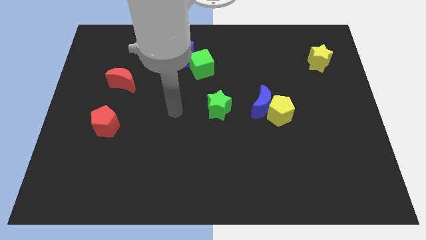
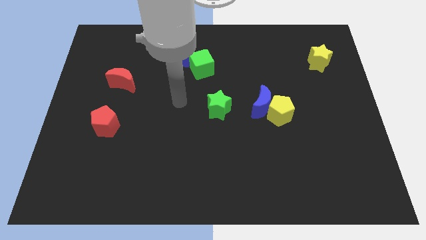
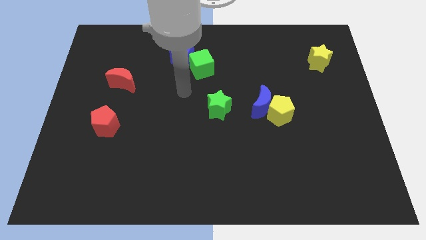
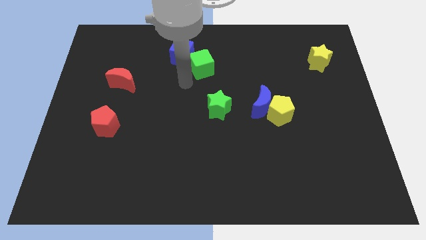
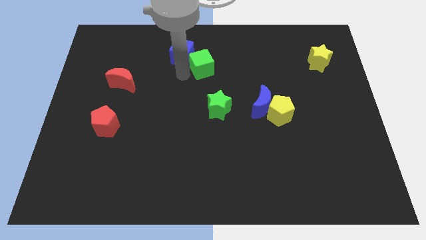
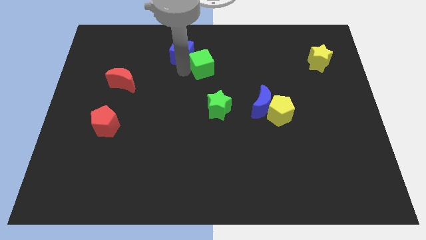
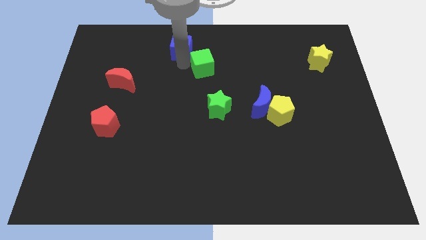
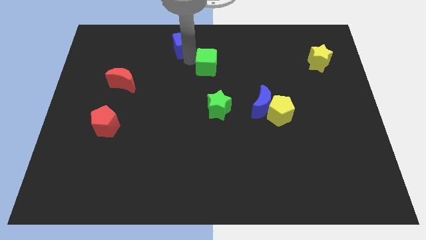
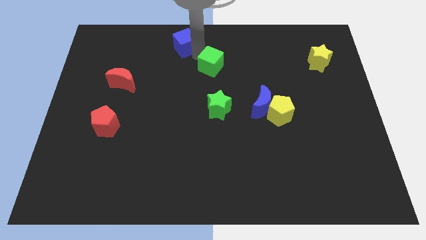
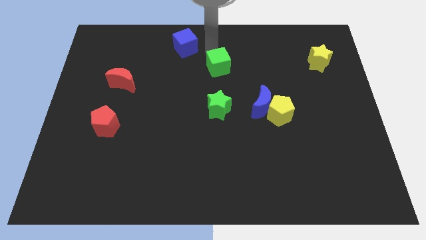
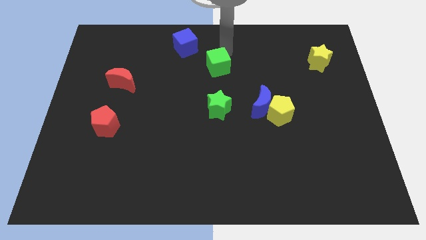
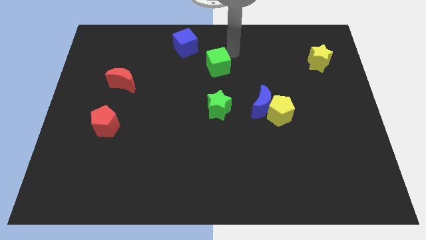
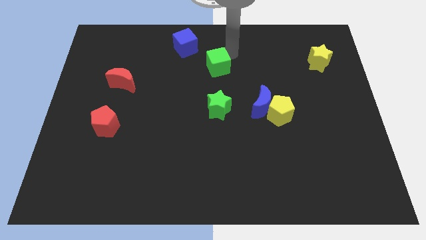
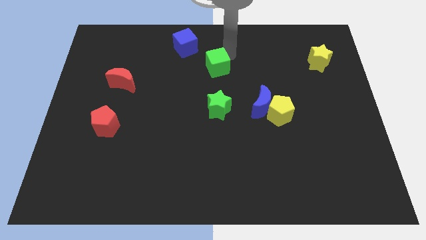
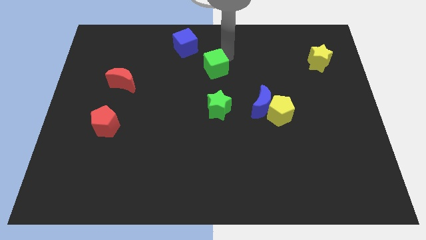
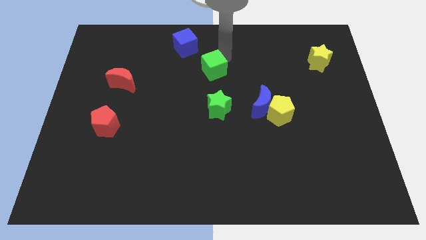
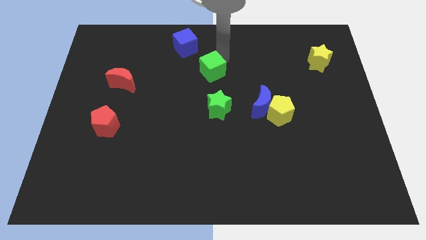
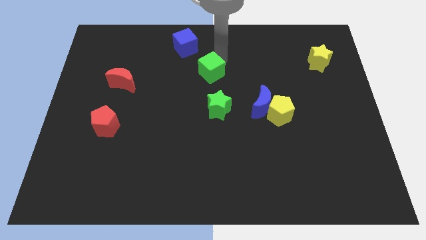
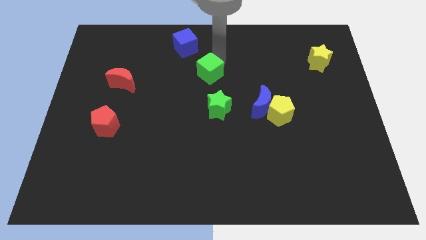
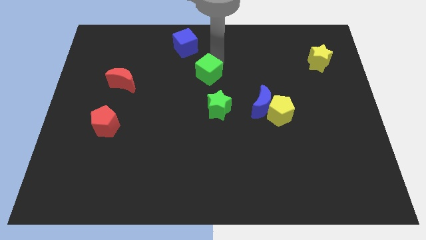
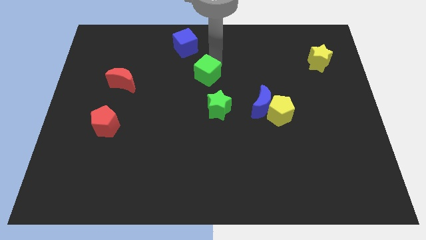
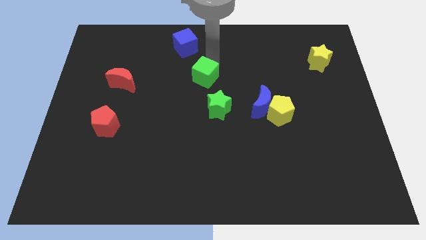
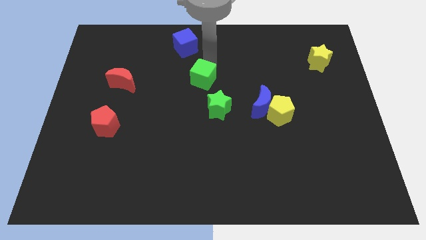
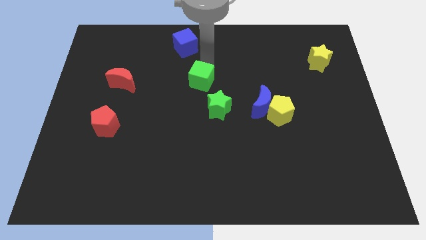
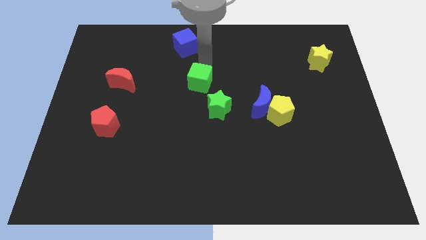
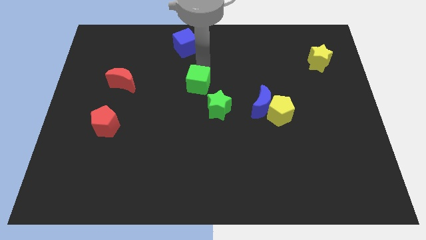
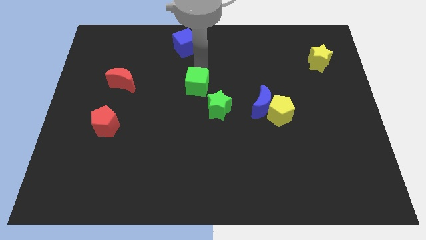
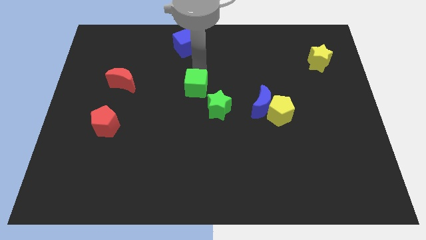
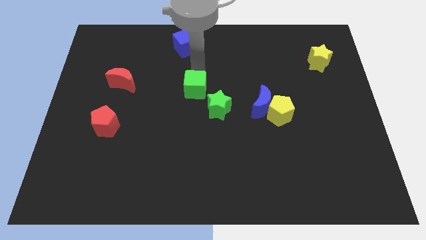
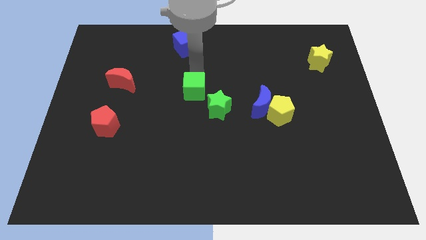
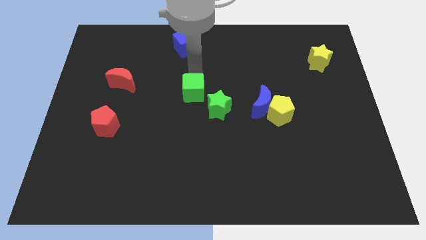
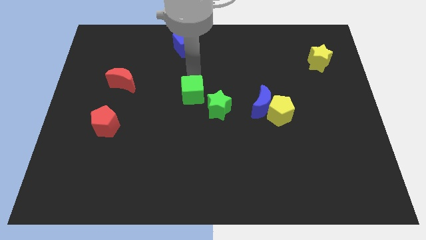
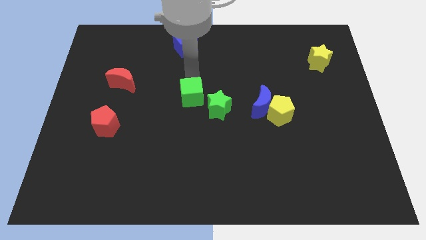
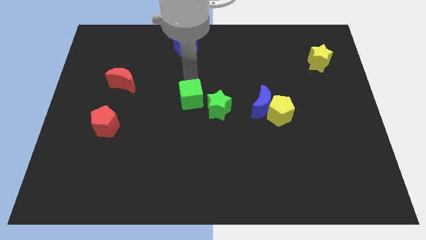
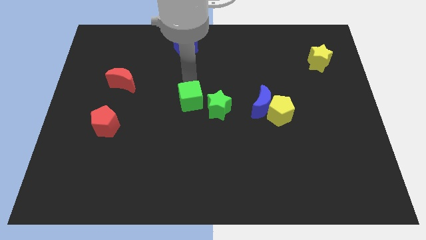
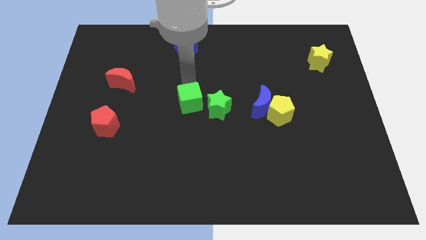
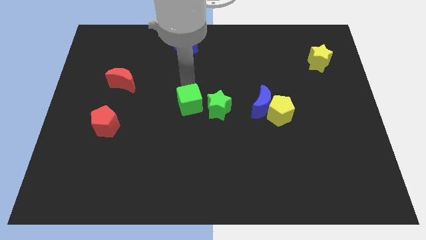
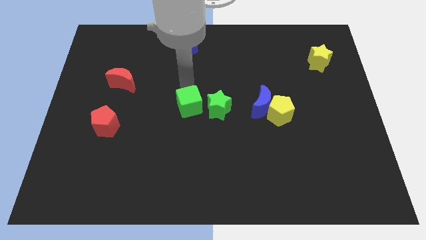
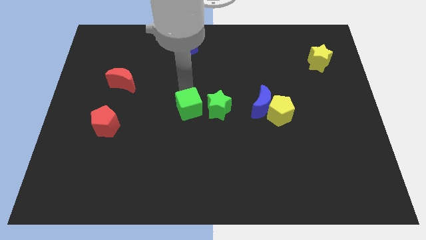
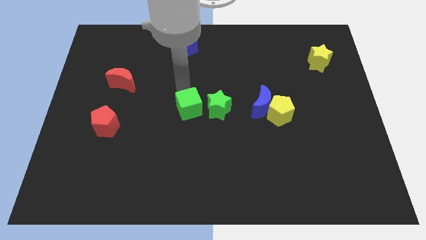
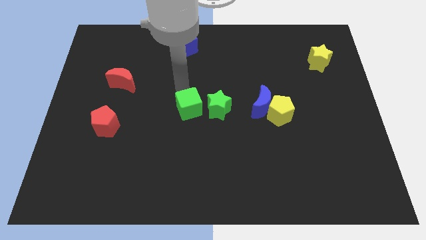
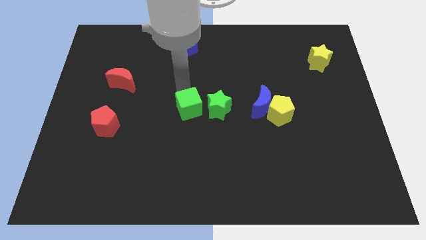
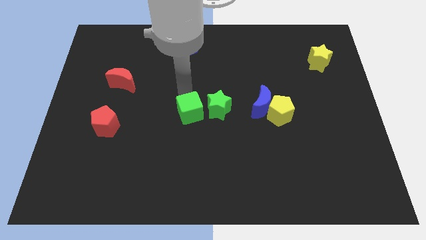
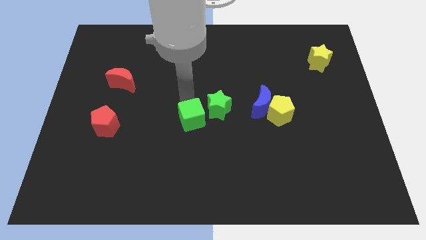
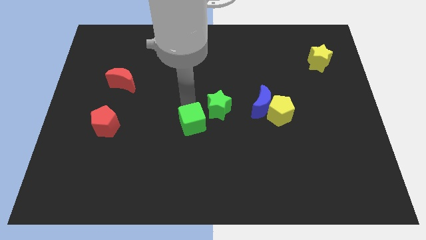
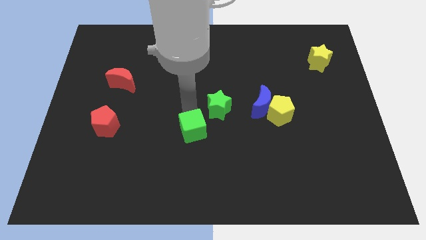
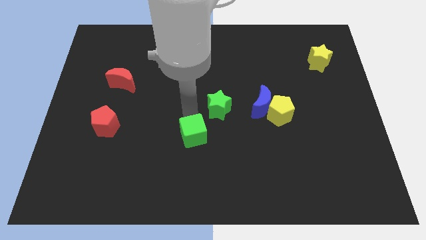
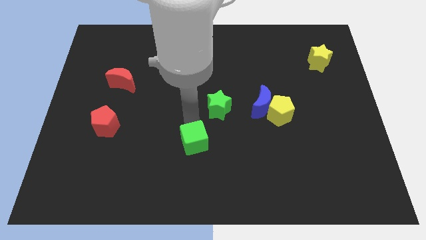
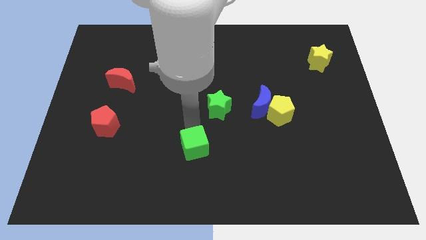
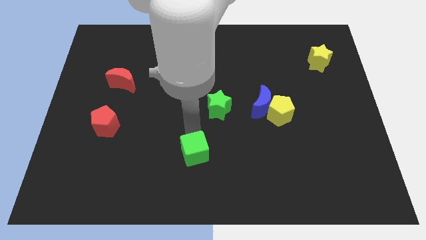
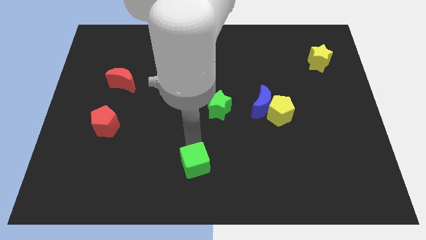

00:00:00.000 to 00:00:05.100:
move the green cube to the bottom side

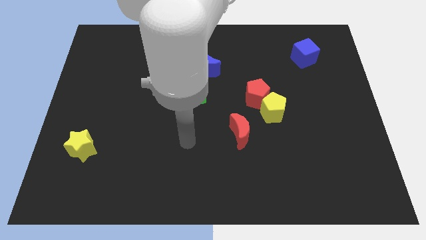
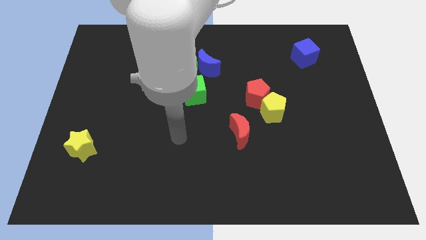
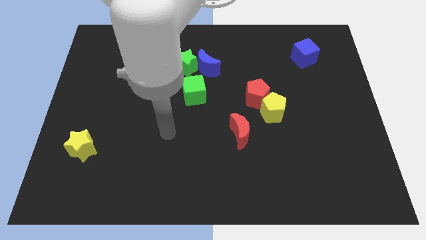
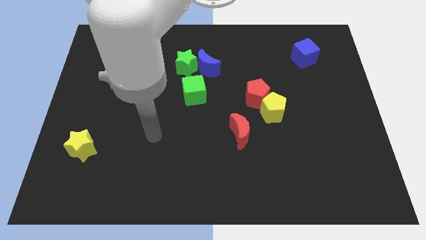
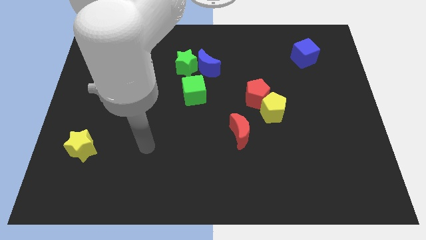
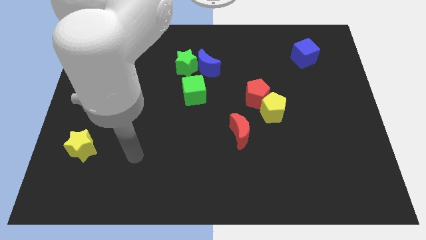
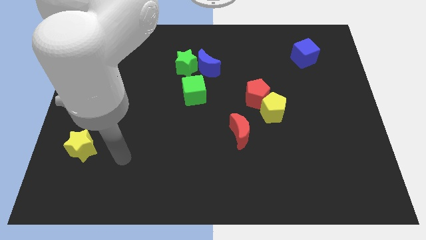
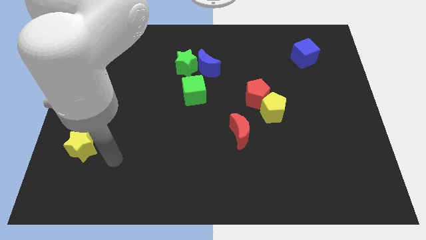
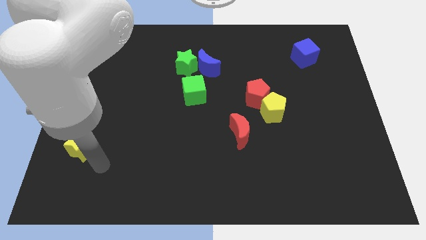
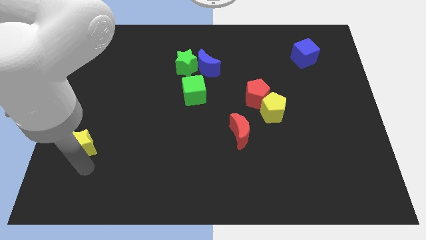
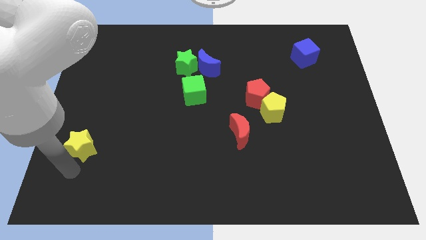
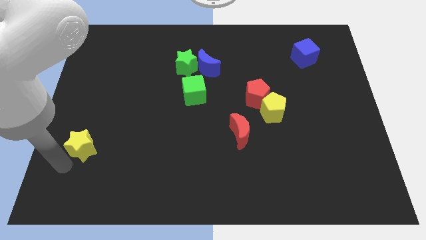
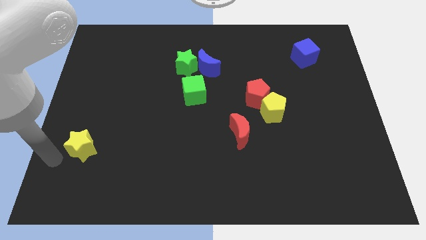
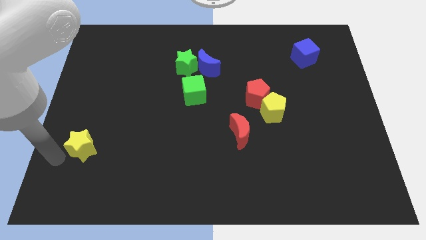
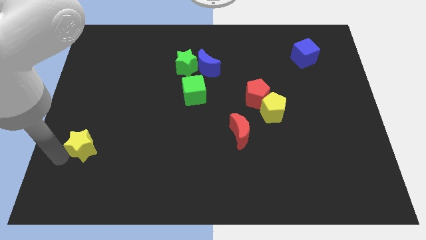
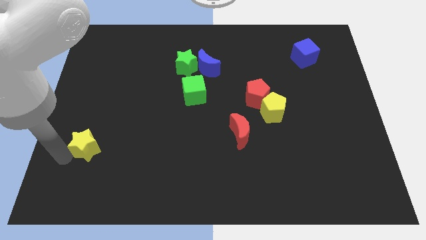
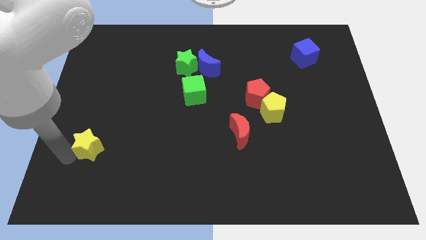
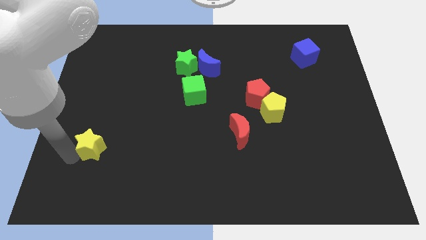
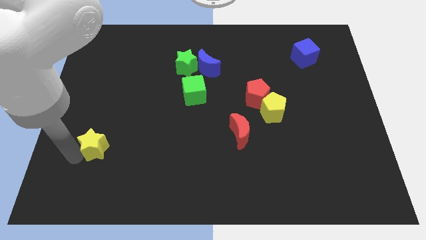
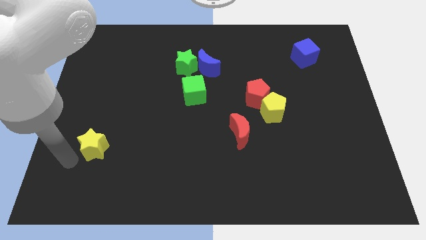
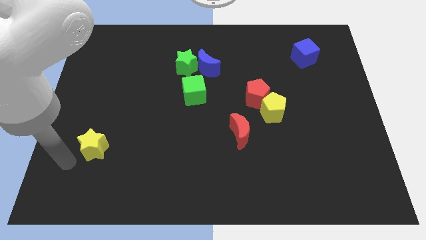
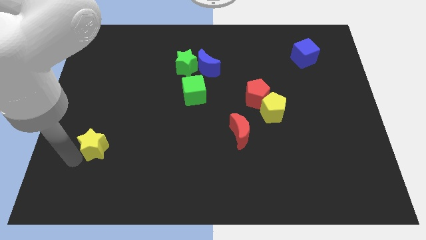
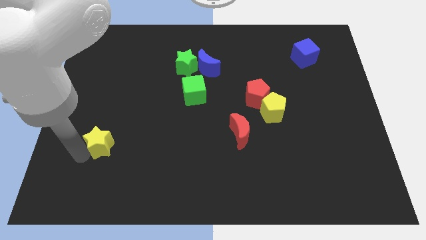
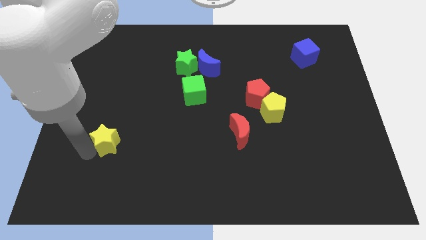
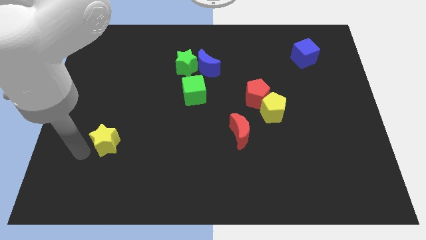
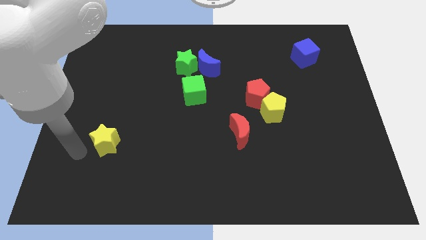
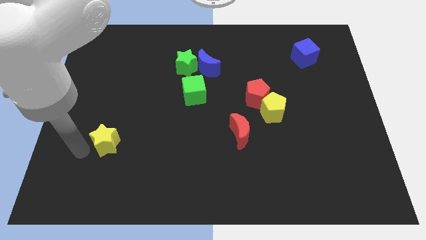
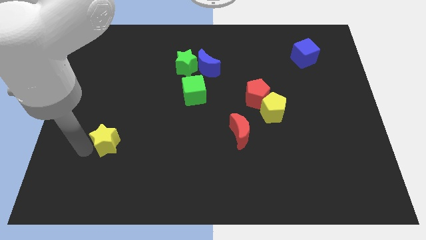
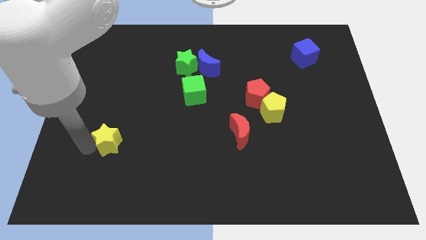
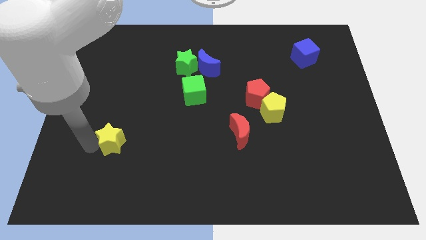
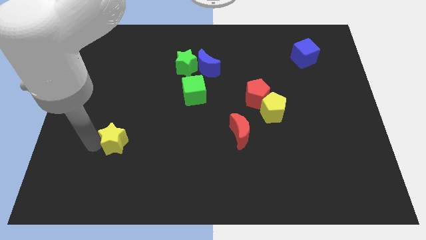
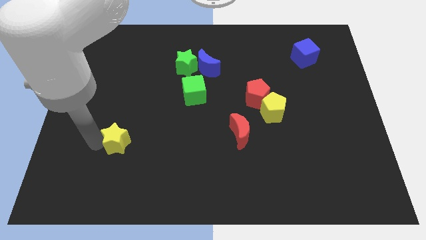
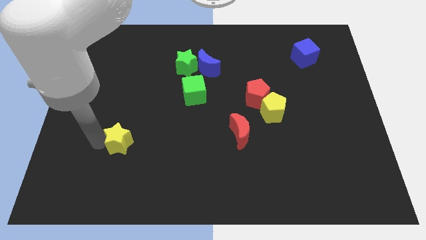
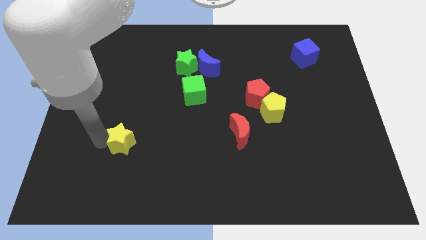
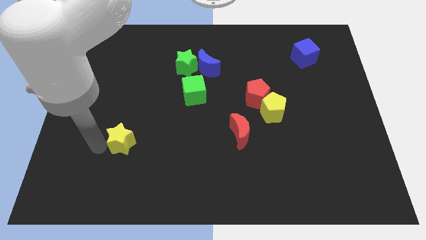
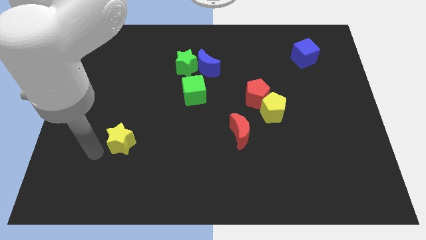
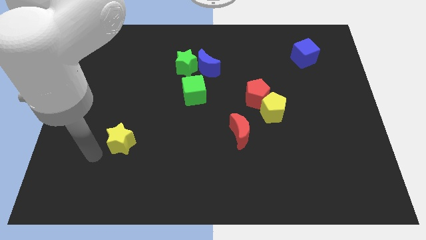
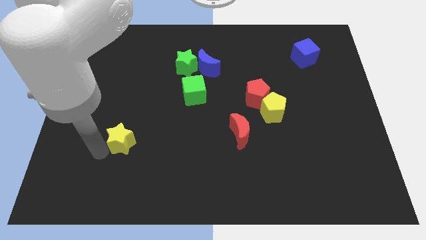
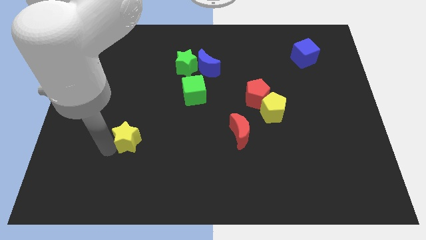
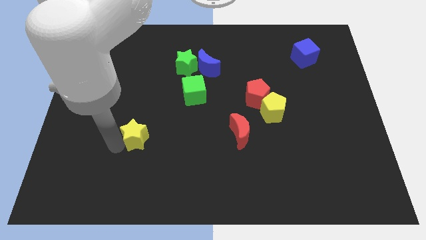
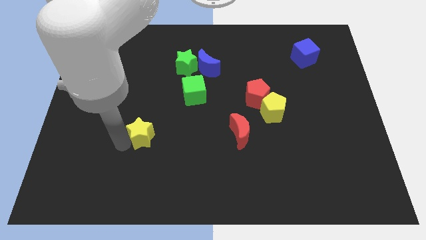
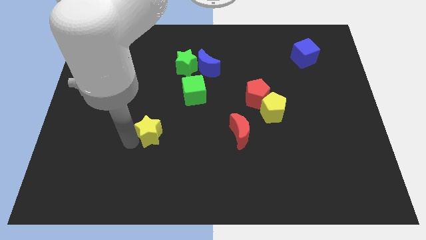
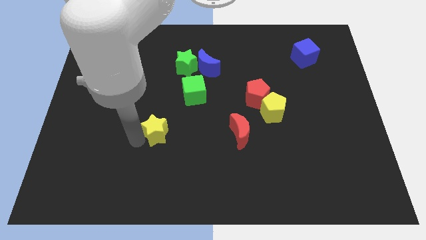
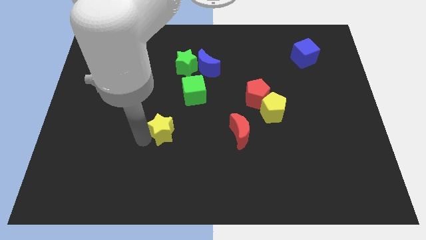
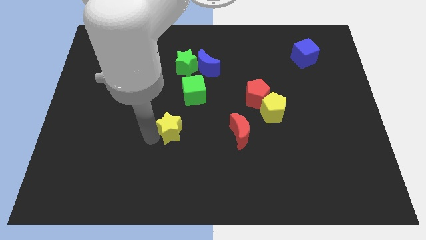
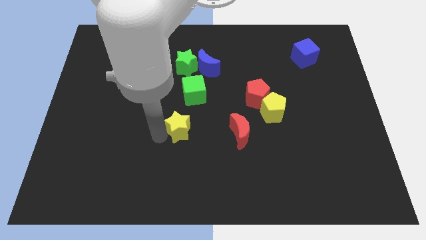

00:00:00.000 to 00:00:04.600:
move the yellow star to the middle
